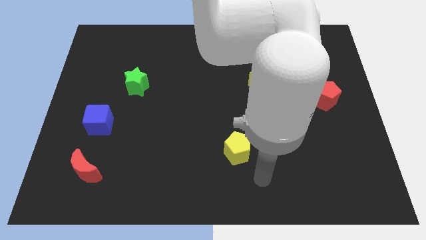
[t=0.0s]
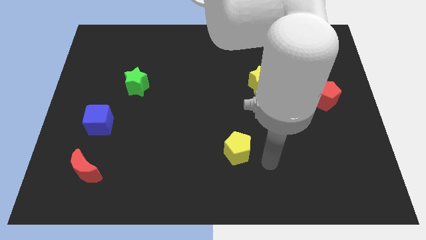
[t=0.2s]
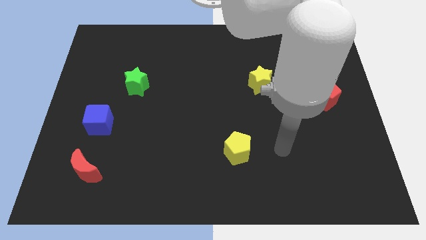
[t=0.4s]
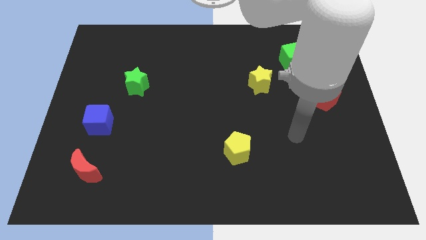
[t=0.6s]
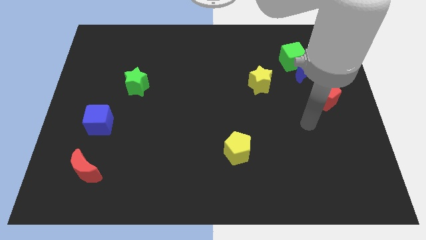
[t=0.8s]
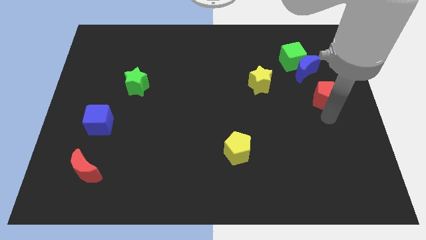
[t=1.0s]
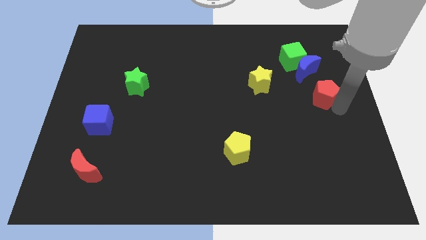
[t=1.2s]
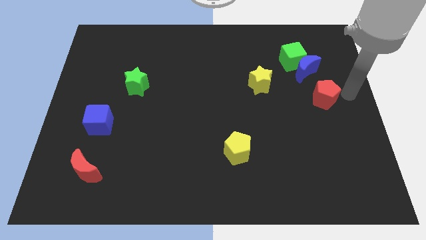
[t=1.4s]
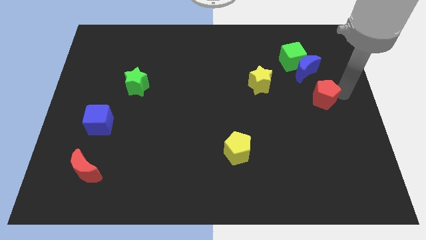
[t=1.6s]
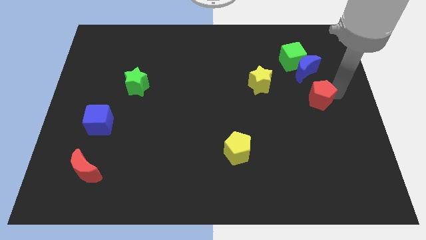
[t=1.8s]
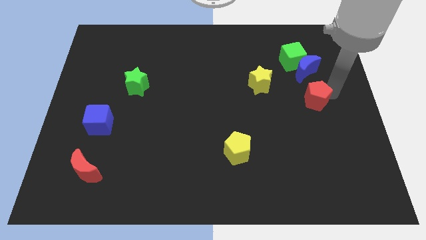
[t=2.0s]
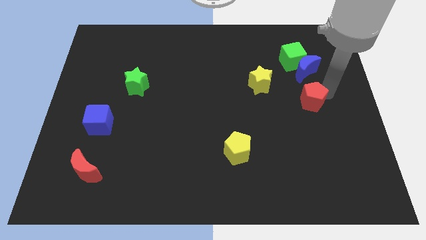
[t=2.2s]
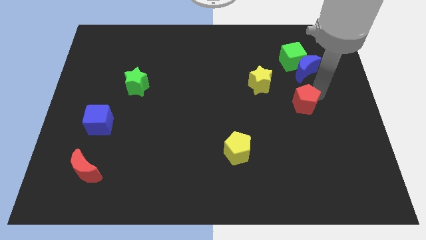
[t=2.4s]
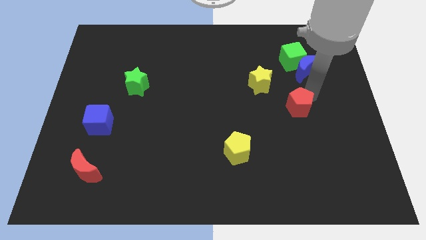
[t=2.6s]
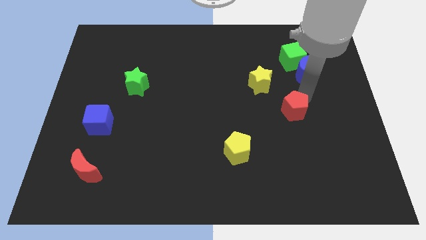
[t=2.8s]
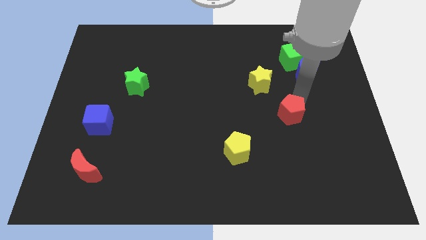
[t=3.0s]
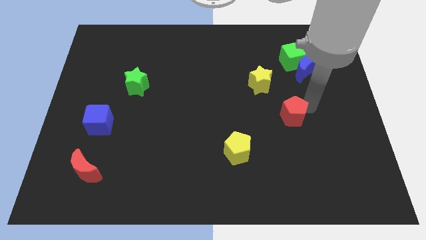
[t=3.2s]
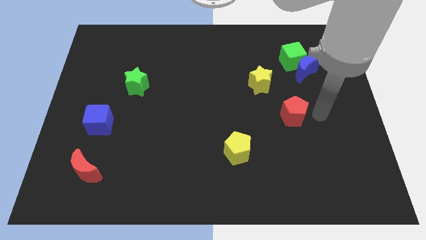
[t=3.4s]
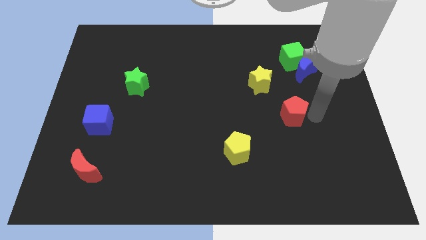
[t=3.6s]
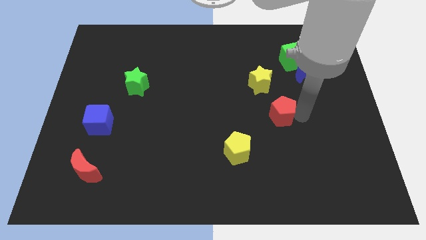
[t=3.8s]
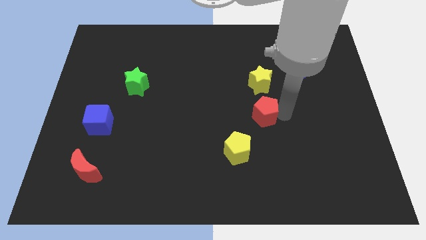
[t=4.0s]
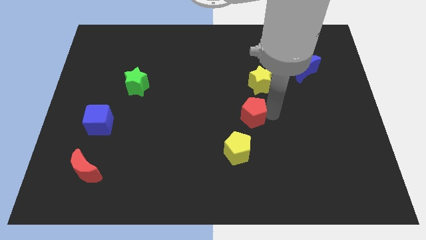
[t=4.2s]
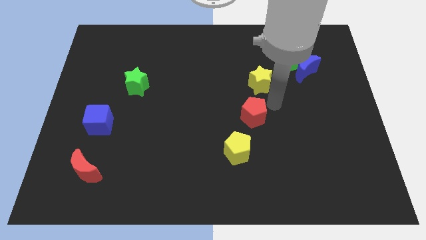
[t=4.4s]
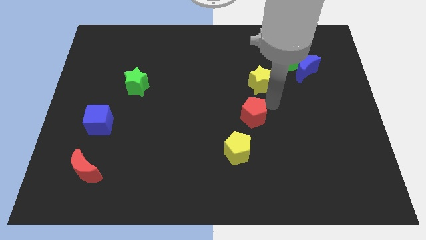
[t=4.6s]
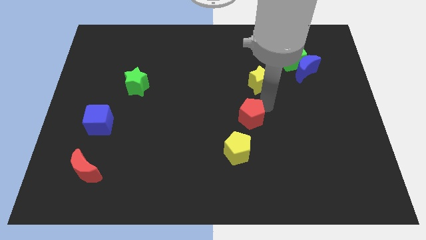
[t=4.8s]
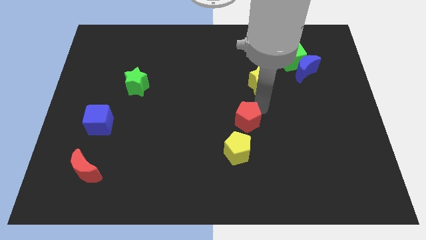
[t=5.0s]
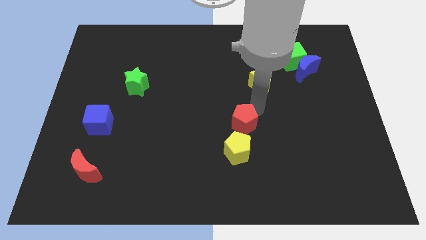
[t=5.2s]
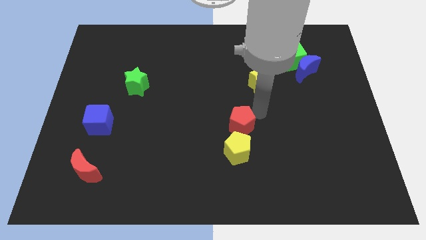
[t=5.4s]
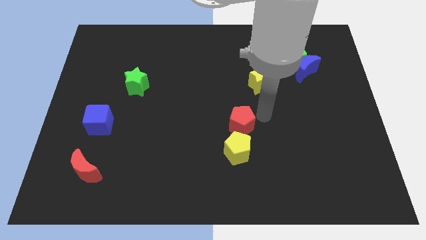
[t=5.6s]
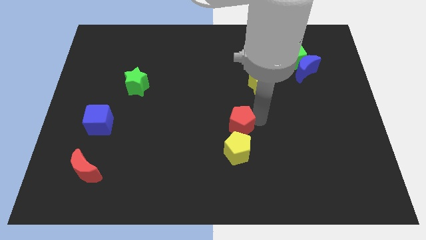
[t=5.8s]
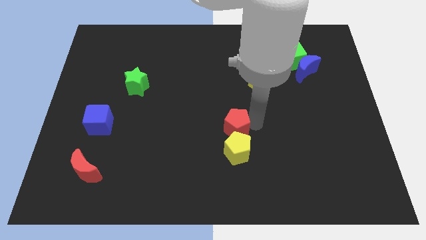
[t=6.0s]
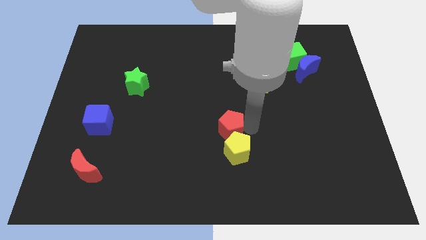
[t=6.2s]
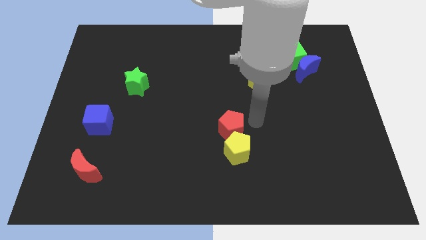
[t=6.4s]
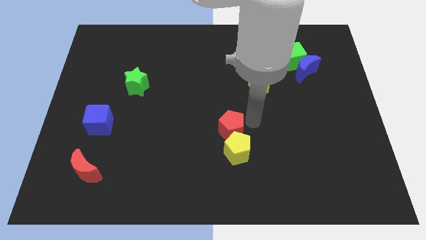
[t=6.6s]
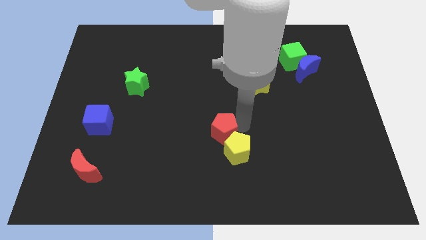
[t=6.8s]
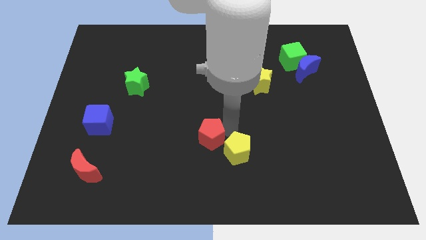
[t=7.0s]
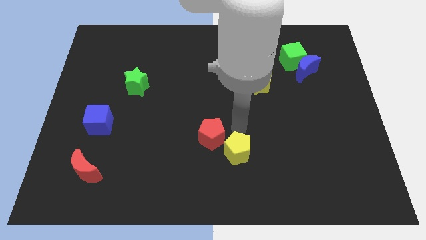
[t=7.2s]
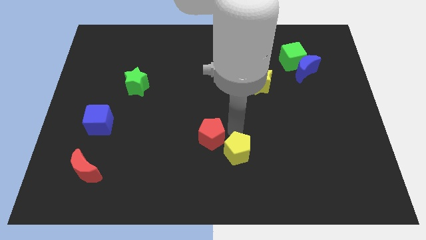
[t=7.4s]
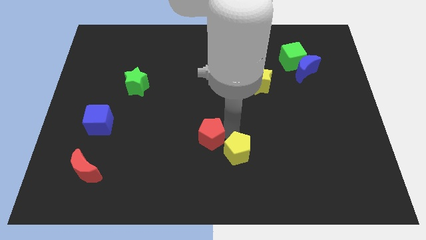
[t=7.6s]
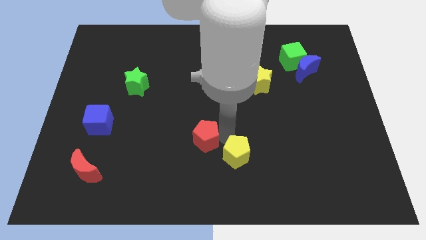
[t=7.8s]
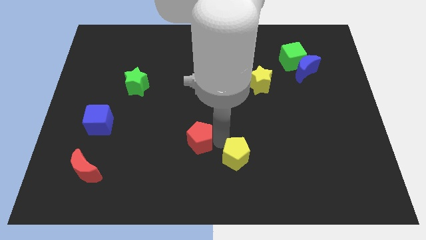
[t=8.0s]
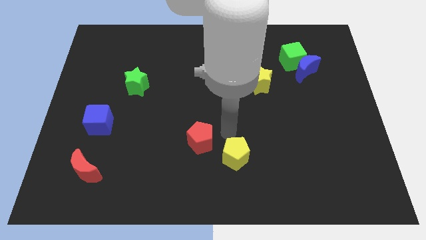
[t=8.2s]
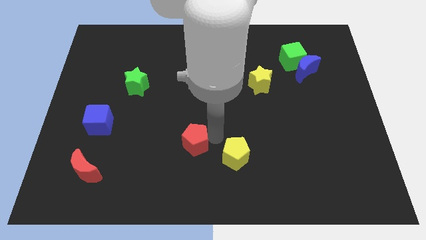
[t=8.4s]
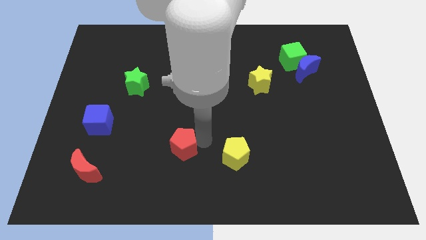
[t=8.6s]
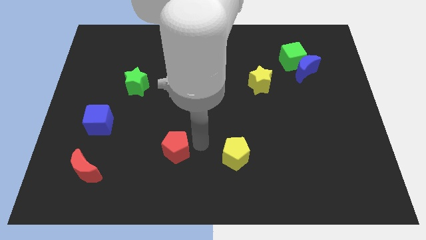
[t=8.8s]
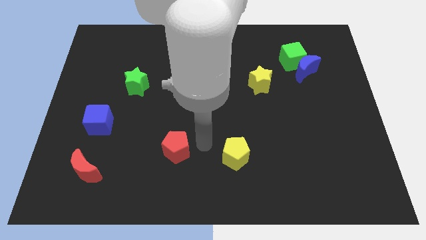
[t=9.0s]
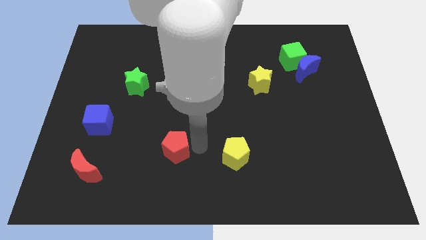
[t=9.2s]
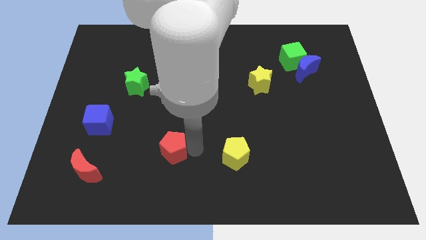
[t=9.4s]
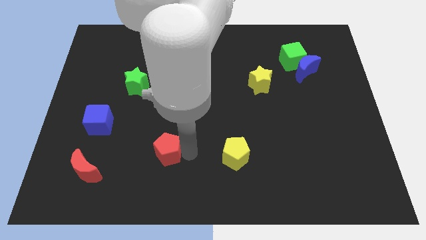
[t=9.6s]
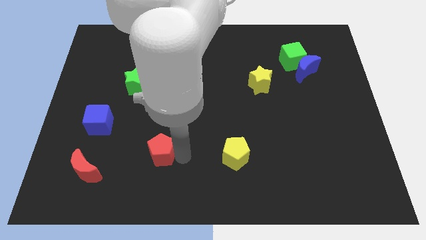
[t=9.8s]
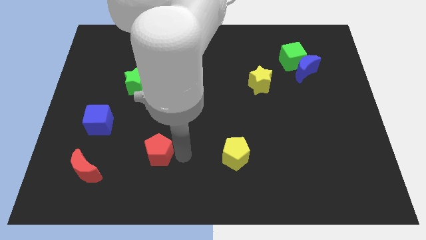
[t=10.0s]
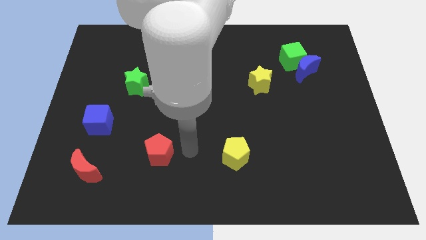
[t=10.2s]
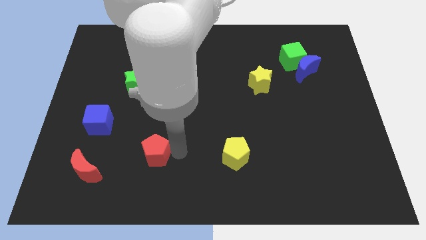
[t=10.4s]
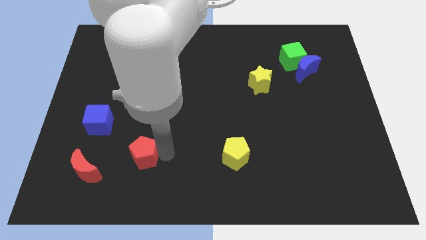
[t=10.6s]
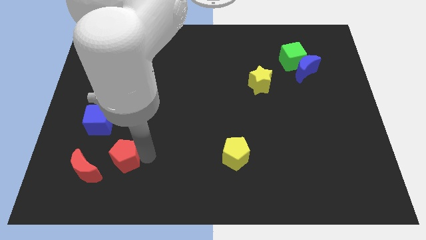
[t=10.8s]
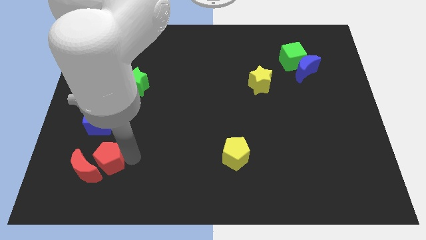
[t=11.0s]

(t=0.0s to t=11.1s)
move the red pentagon close to the red moon

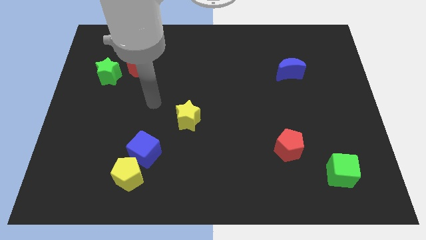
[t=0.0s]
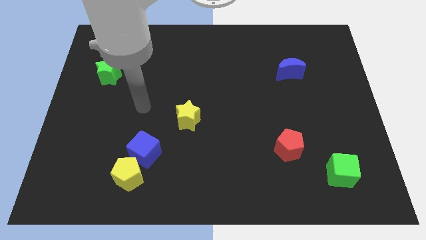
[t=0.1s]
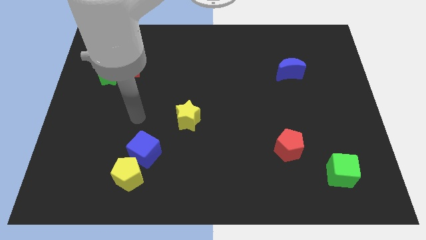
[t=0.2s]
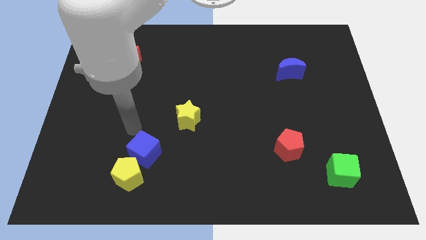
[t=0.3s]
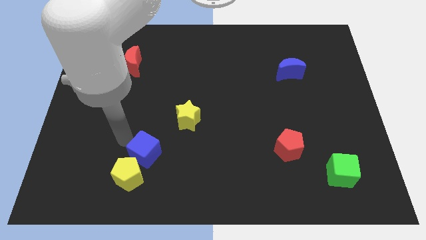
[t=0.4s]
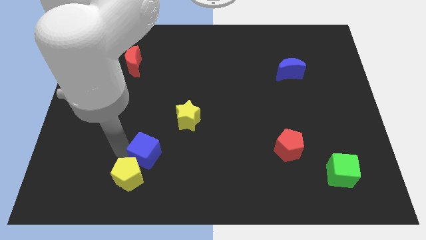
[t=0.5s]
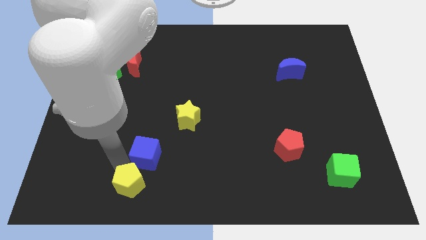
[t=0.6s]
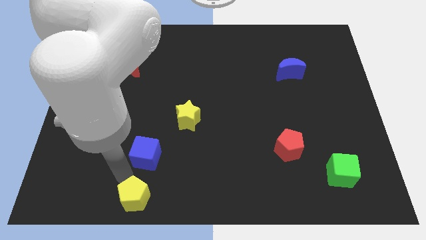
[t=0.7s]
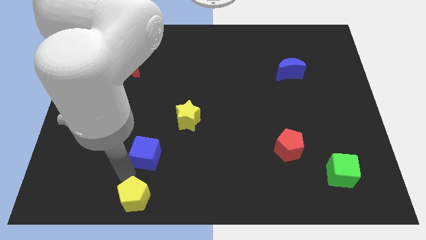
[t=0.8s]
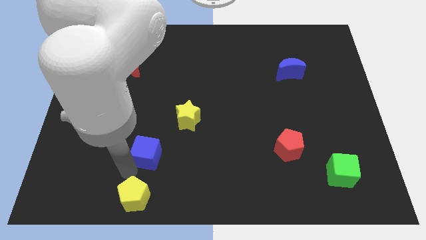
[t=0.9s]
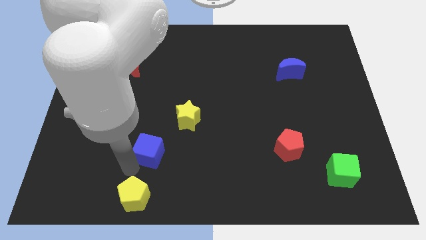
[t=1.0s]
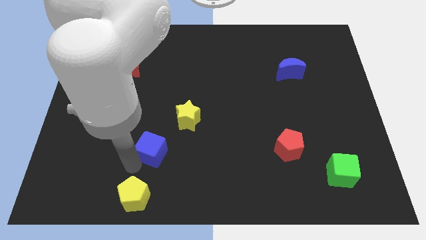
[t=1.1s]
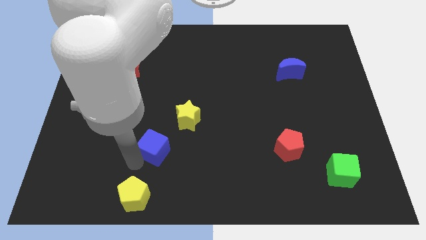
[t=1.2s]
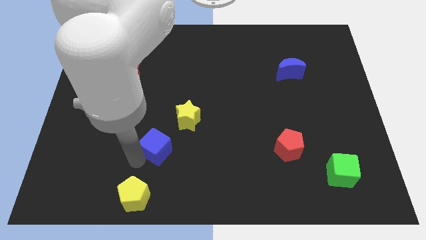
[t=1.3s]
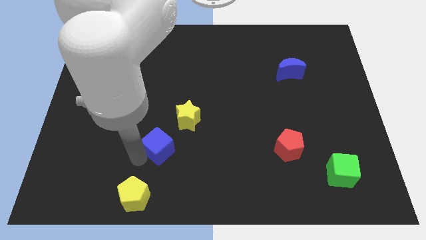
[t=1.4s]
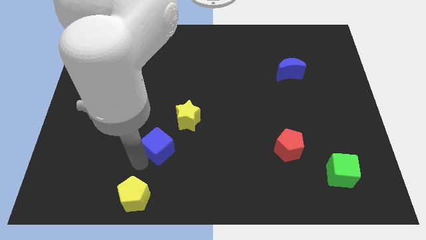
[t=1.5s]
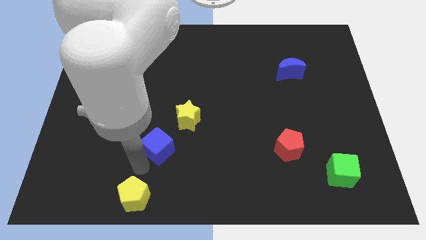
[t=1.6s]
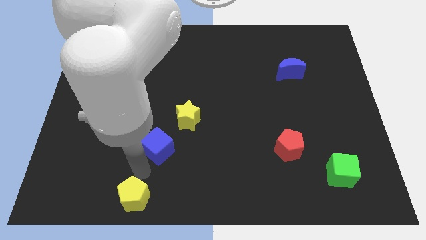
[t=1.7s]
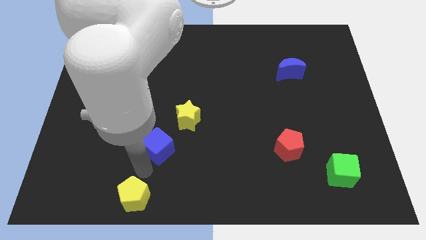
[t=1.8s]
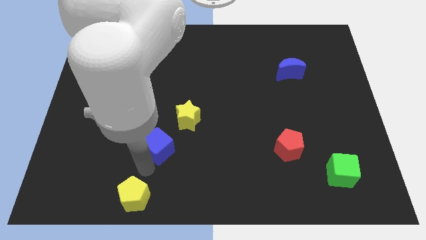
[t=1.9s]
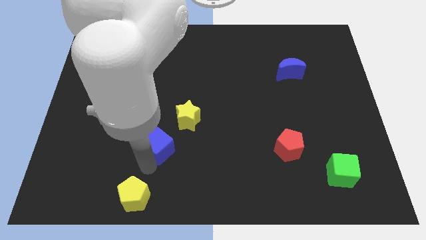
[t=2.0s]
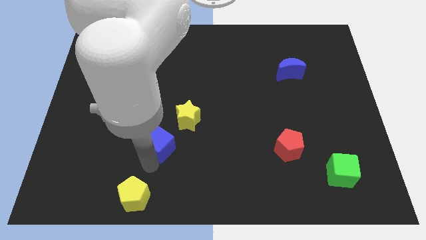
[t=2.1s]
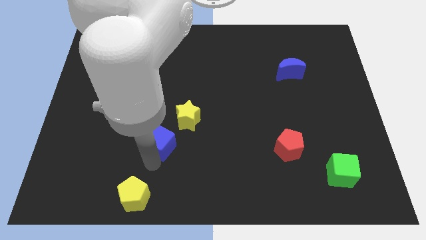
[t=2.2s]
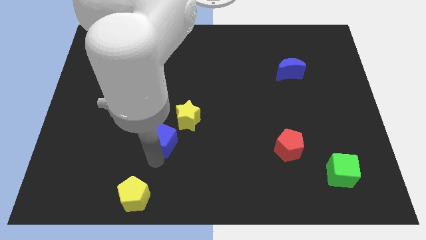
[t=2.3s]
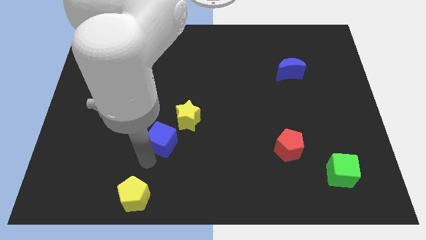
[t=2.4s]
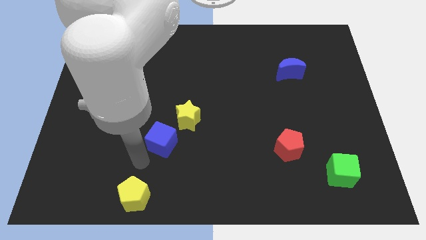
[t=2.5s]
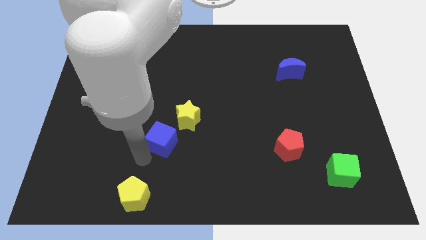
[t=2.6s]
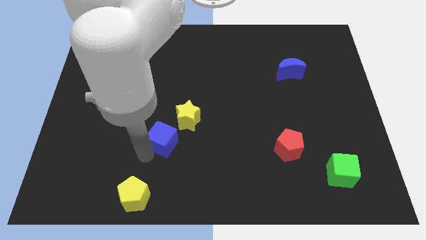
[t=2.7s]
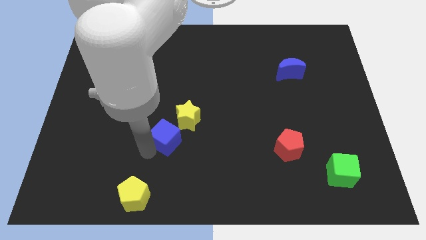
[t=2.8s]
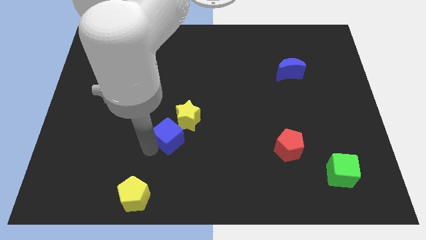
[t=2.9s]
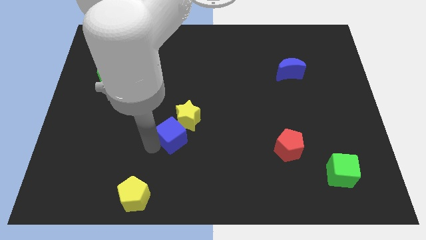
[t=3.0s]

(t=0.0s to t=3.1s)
push the blue cube next to the yellow star
